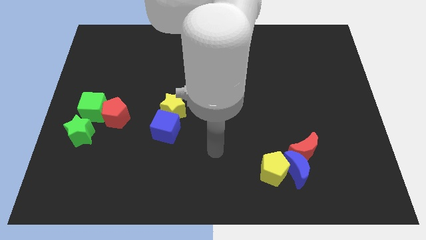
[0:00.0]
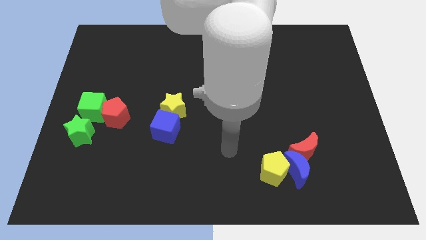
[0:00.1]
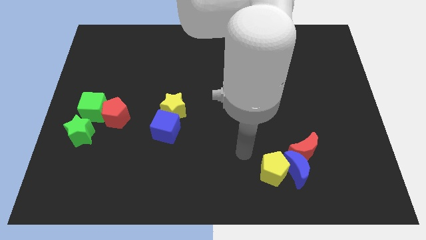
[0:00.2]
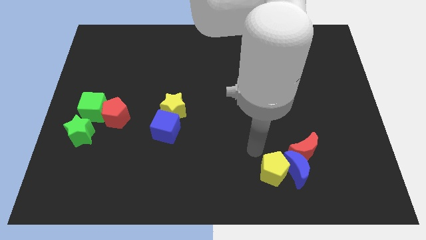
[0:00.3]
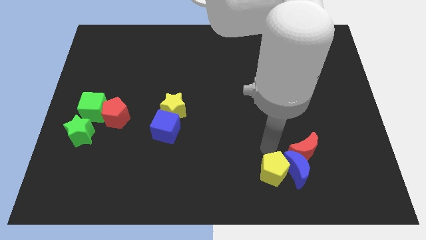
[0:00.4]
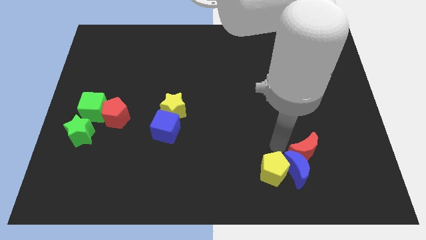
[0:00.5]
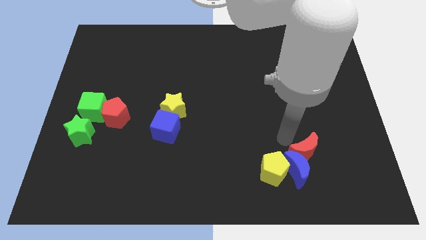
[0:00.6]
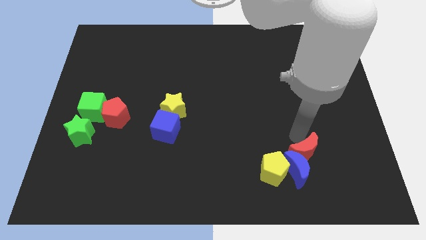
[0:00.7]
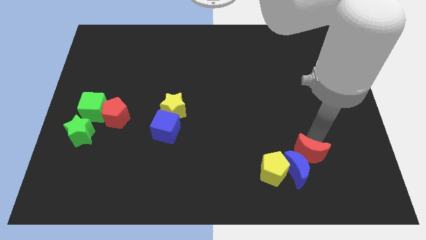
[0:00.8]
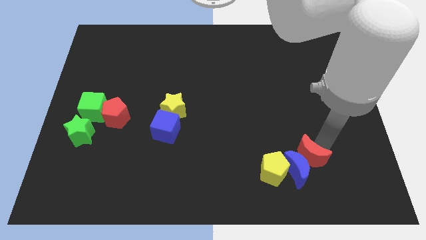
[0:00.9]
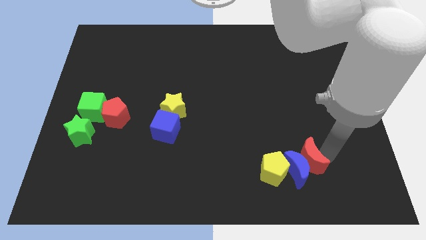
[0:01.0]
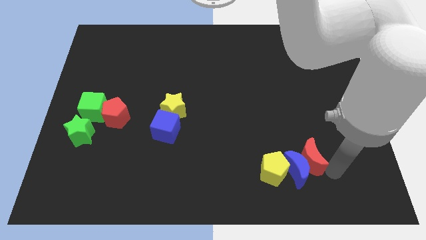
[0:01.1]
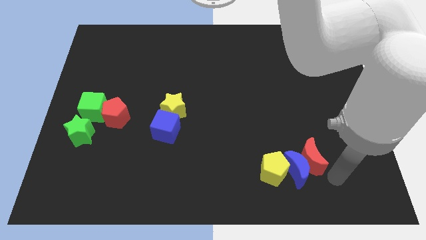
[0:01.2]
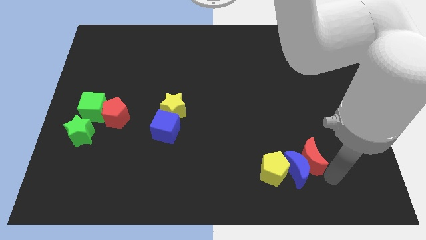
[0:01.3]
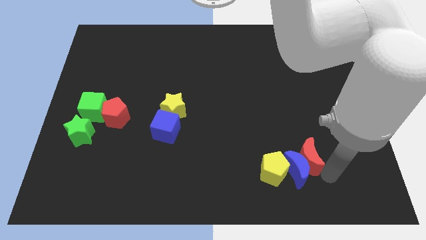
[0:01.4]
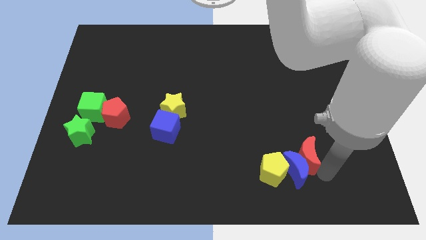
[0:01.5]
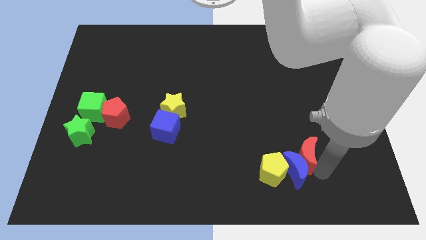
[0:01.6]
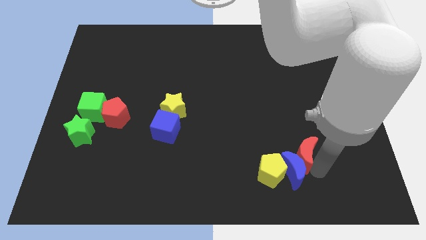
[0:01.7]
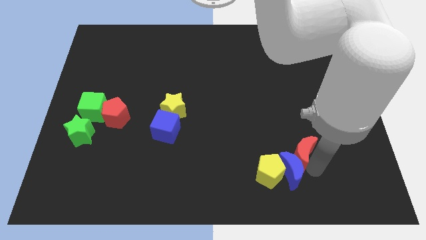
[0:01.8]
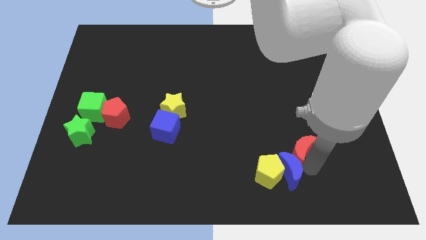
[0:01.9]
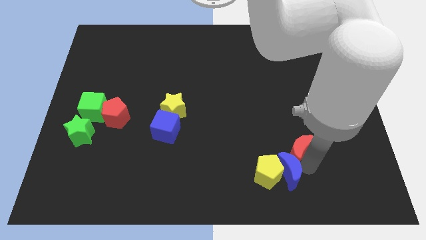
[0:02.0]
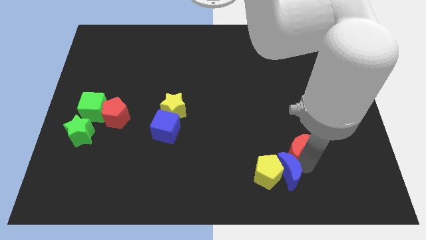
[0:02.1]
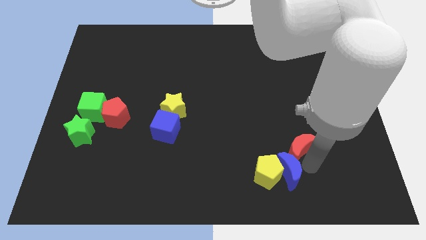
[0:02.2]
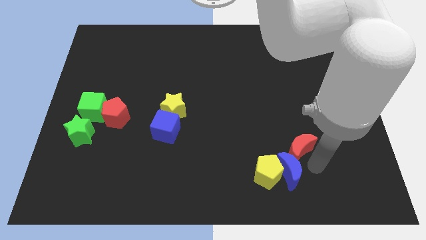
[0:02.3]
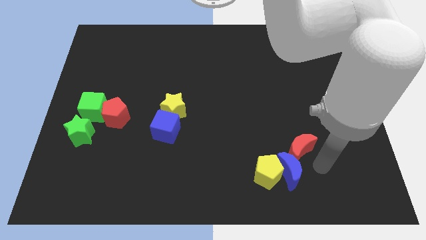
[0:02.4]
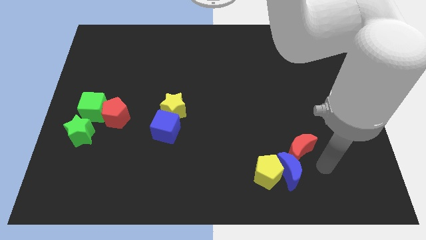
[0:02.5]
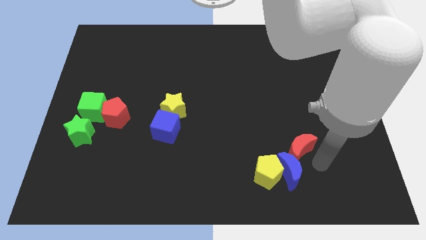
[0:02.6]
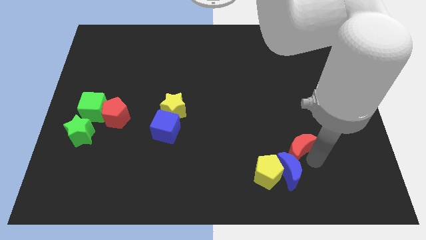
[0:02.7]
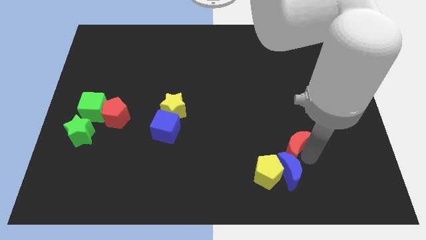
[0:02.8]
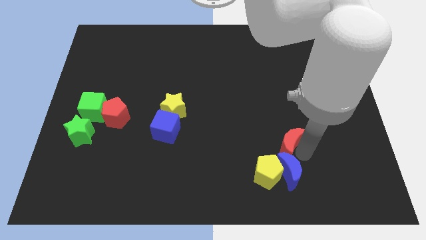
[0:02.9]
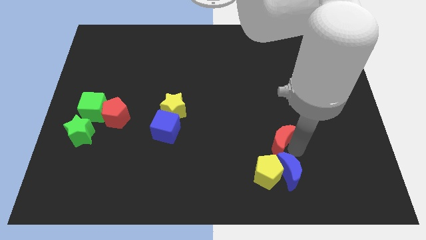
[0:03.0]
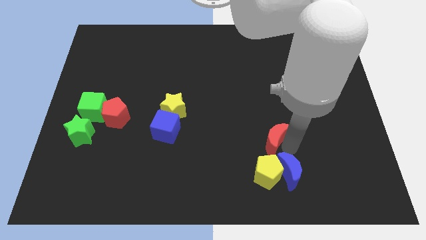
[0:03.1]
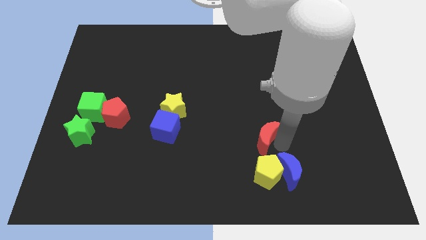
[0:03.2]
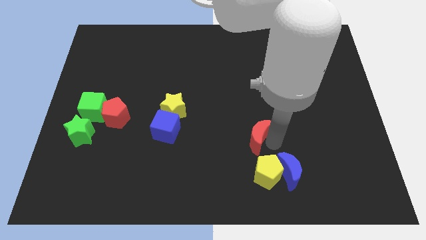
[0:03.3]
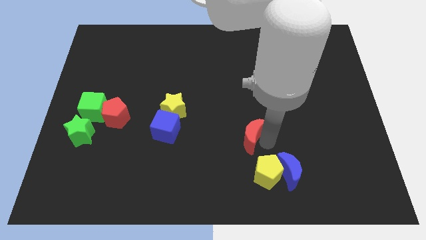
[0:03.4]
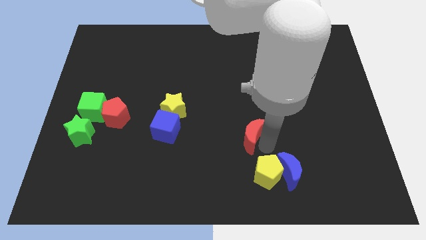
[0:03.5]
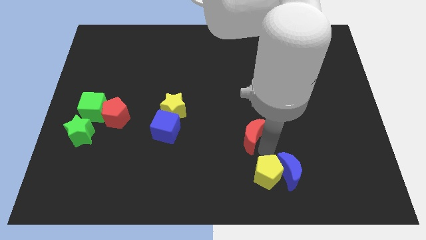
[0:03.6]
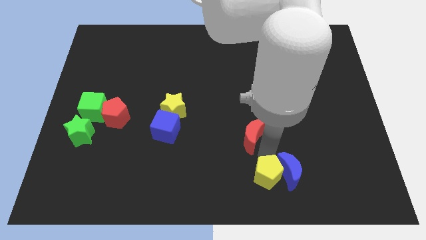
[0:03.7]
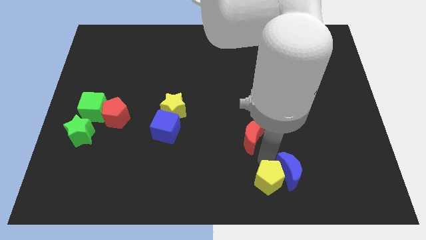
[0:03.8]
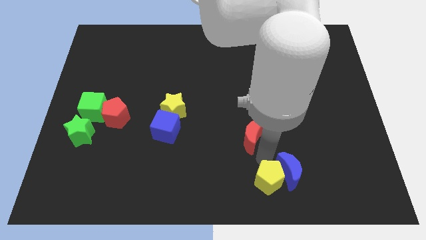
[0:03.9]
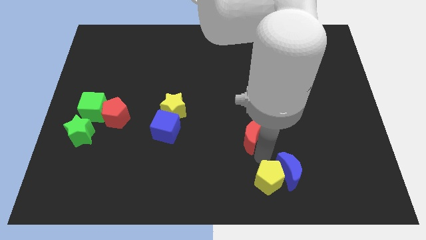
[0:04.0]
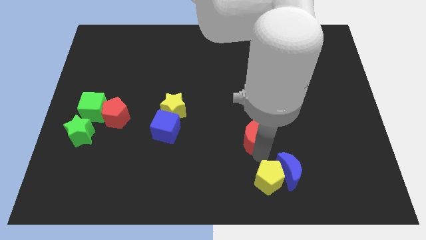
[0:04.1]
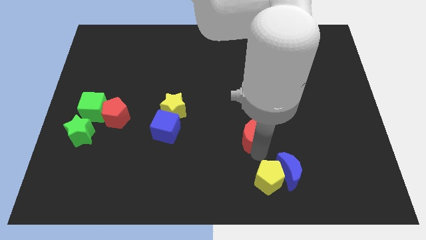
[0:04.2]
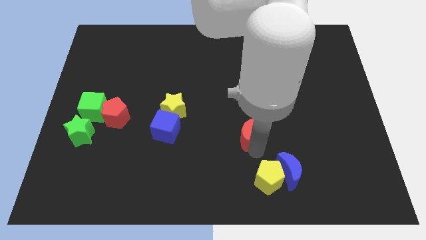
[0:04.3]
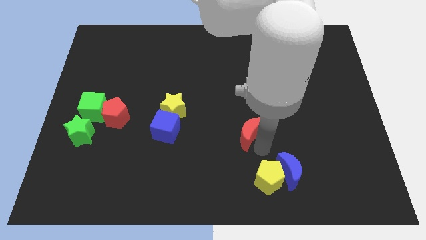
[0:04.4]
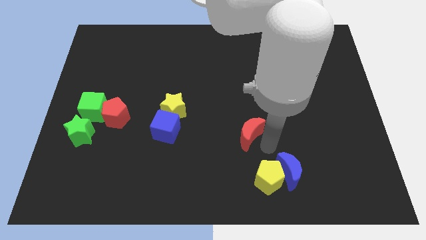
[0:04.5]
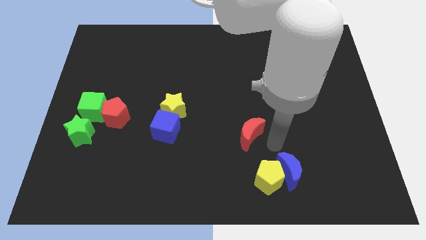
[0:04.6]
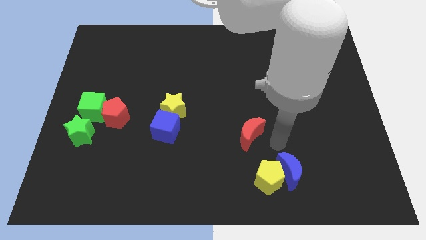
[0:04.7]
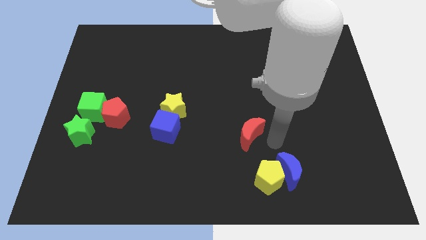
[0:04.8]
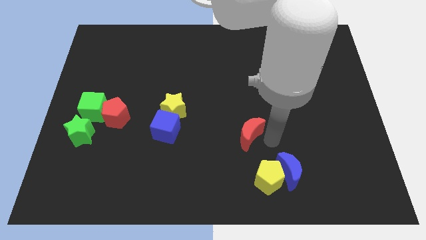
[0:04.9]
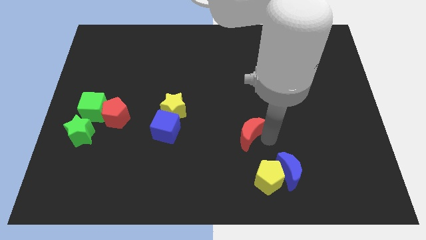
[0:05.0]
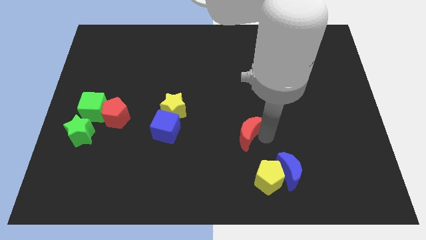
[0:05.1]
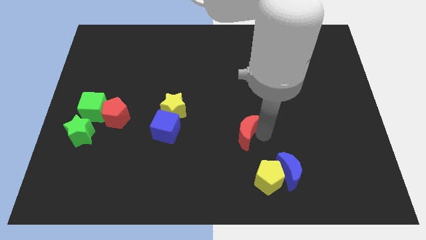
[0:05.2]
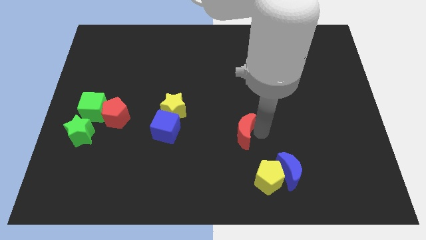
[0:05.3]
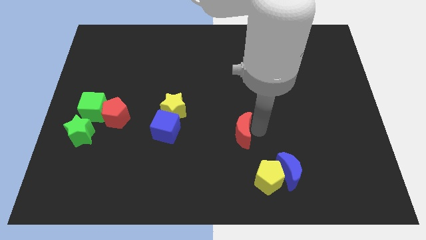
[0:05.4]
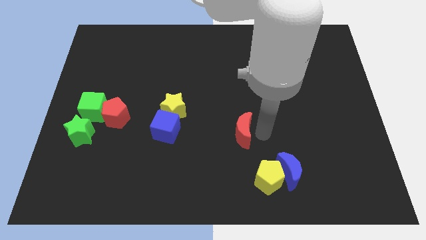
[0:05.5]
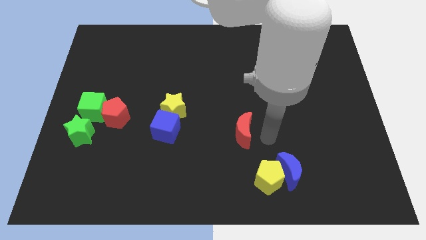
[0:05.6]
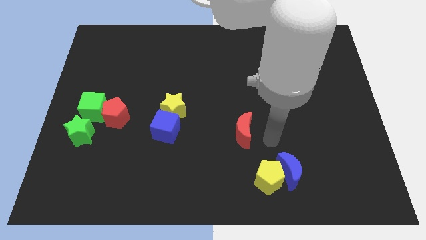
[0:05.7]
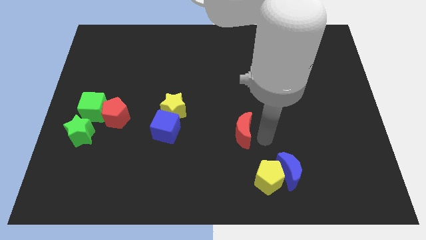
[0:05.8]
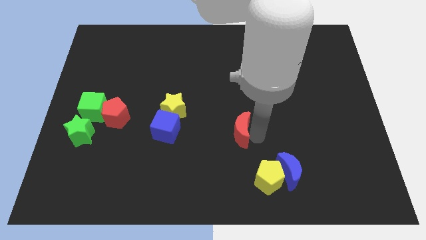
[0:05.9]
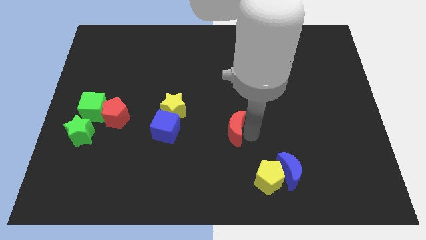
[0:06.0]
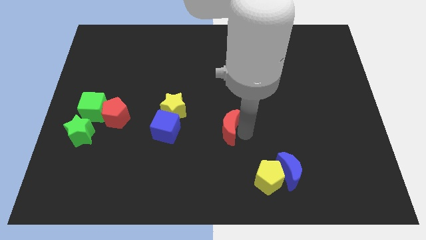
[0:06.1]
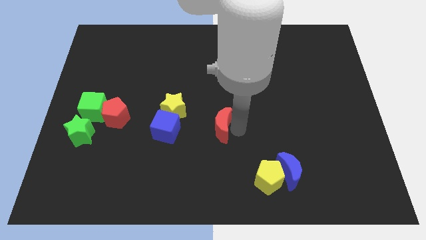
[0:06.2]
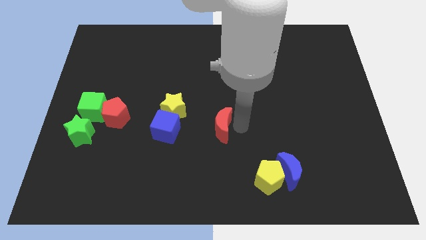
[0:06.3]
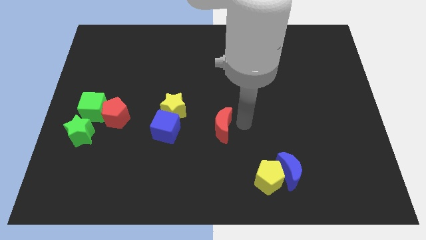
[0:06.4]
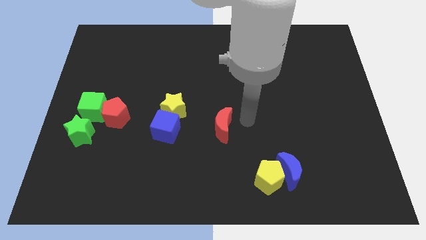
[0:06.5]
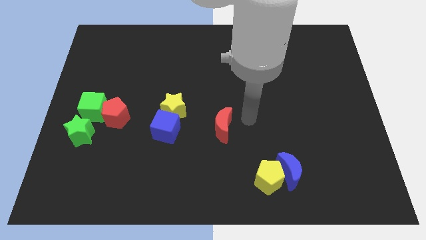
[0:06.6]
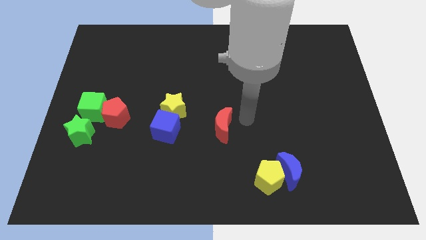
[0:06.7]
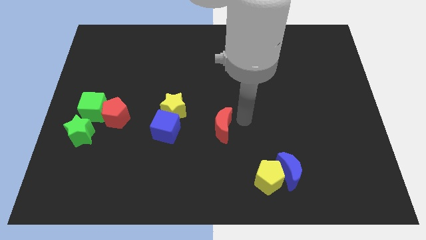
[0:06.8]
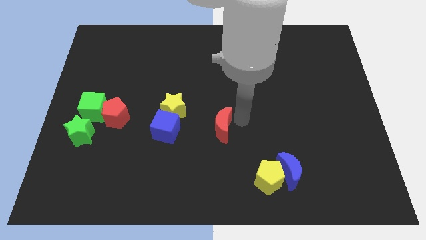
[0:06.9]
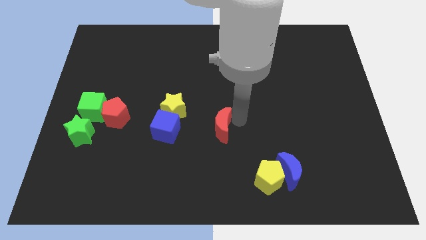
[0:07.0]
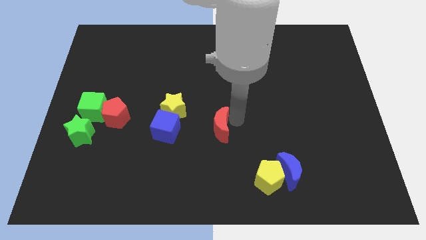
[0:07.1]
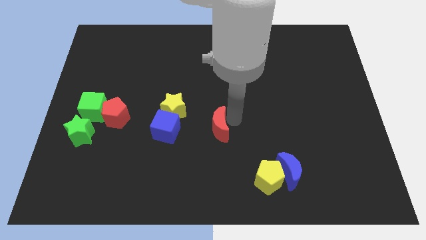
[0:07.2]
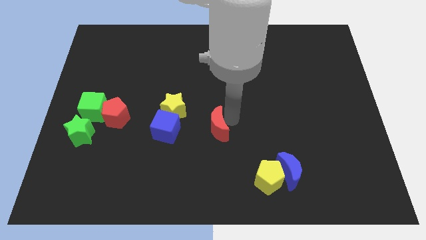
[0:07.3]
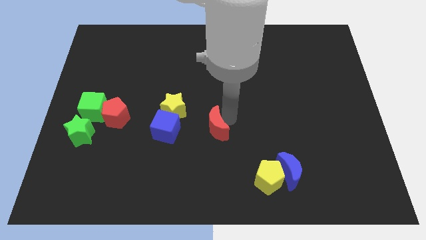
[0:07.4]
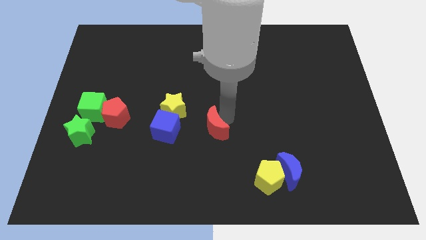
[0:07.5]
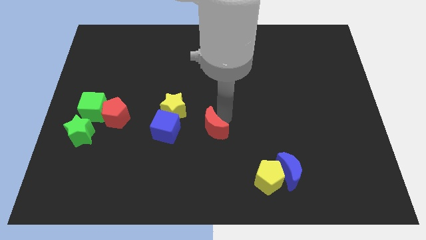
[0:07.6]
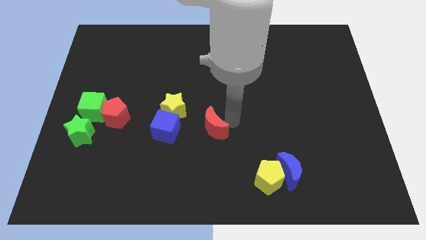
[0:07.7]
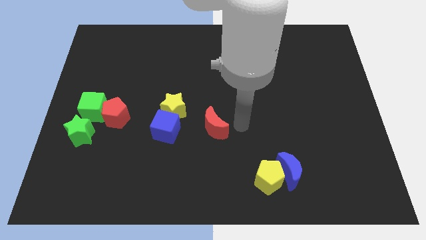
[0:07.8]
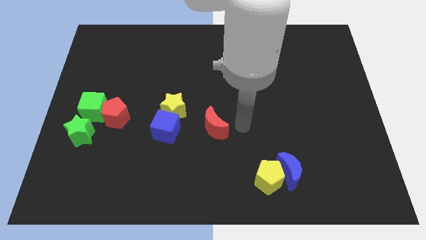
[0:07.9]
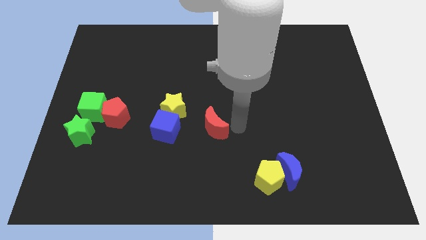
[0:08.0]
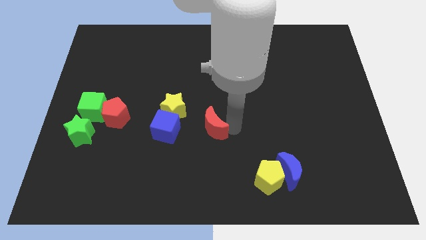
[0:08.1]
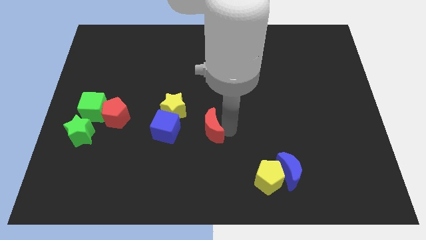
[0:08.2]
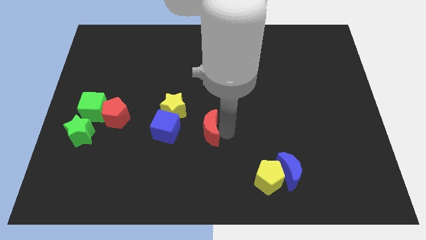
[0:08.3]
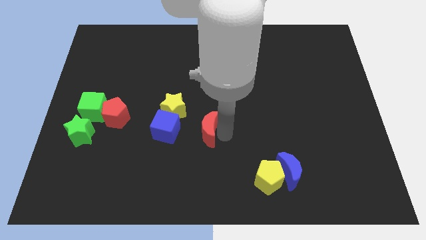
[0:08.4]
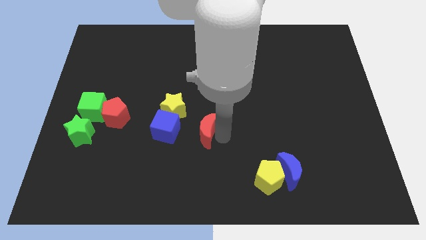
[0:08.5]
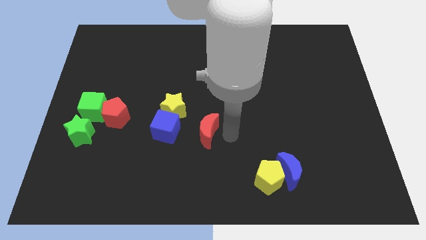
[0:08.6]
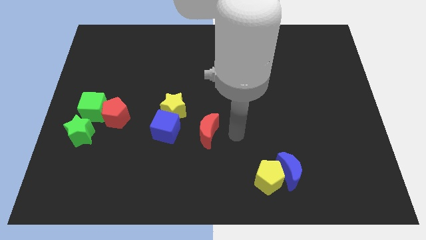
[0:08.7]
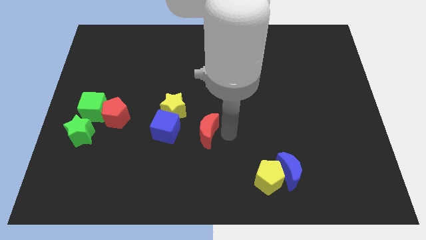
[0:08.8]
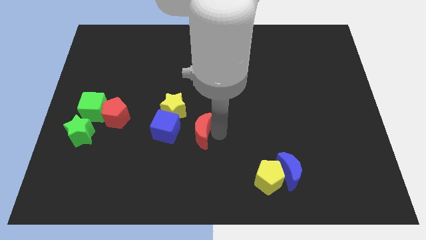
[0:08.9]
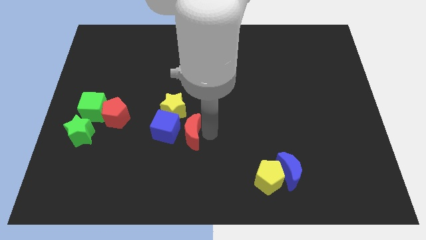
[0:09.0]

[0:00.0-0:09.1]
push the red moon next to the blue cube
